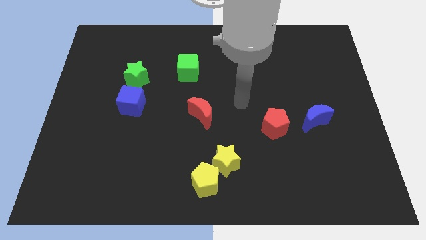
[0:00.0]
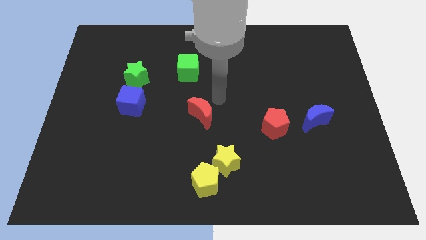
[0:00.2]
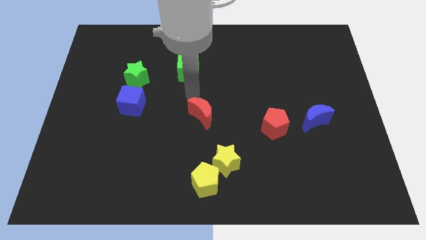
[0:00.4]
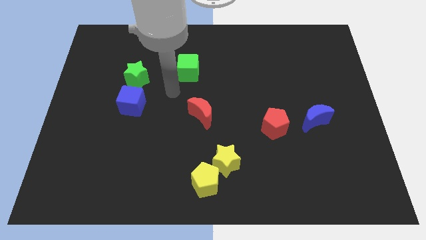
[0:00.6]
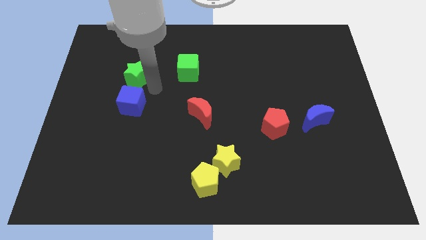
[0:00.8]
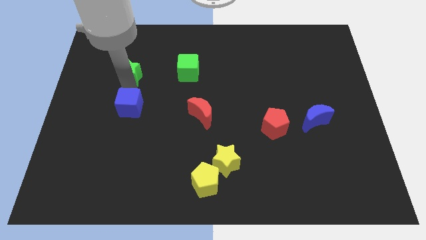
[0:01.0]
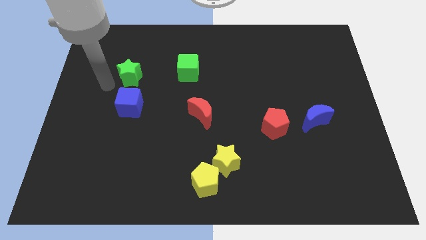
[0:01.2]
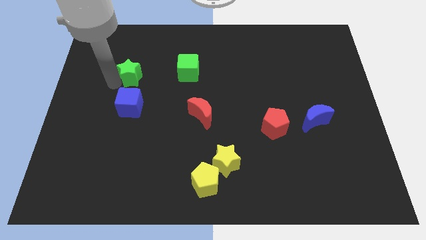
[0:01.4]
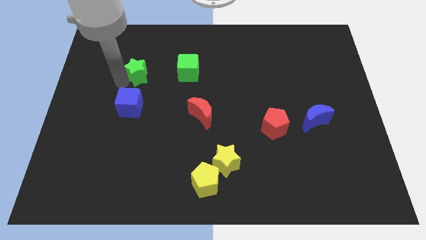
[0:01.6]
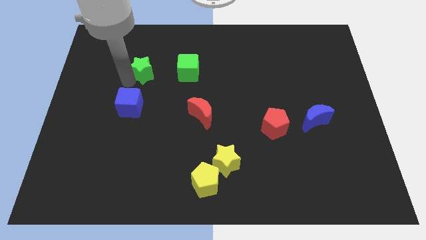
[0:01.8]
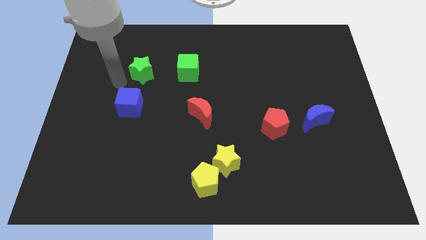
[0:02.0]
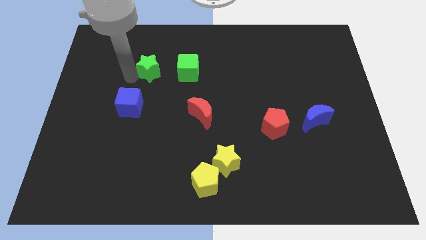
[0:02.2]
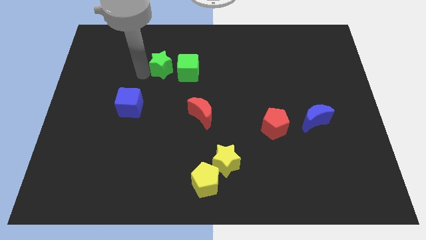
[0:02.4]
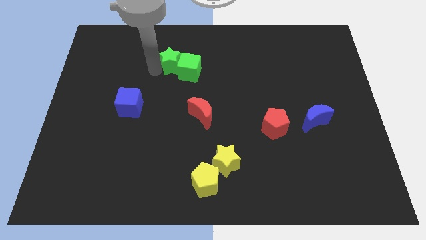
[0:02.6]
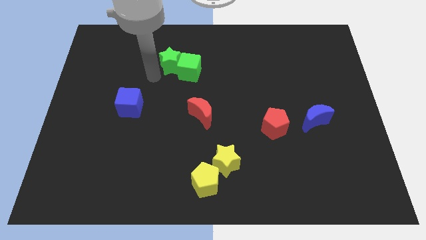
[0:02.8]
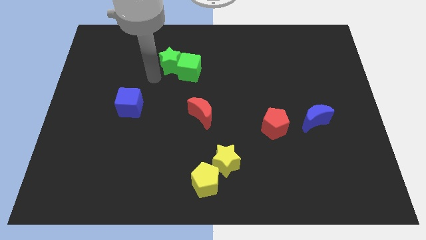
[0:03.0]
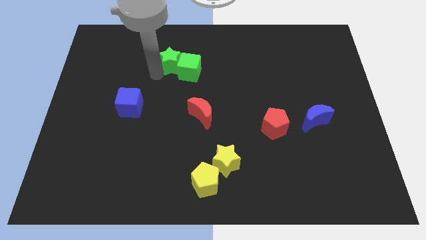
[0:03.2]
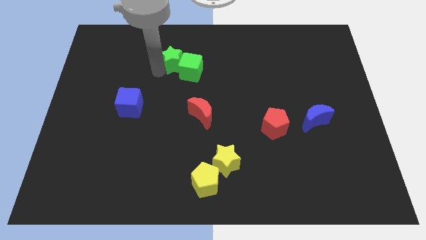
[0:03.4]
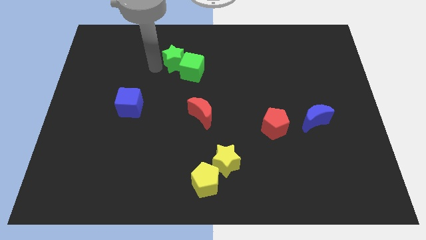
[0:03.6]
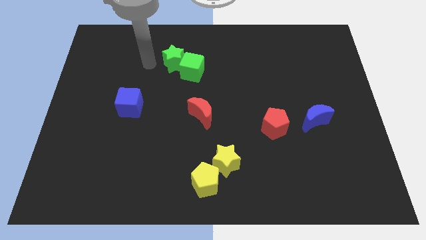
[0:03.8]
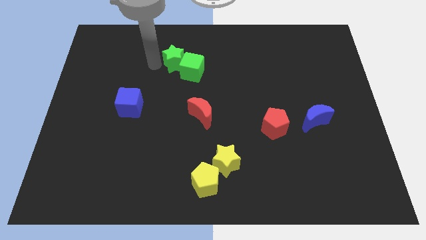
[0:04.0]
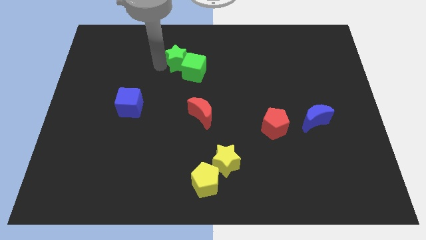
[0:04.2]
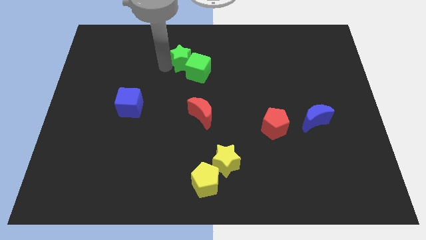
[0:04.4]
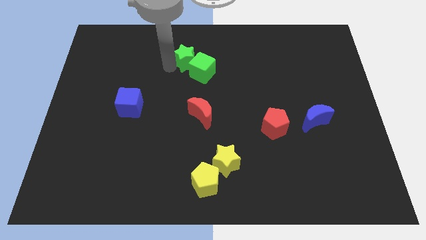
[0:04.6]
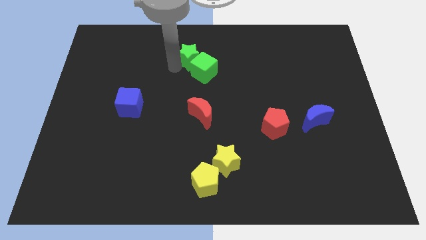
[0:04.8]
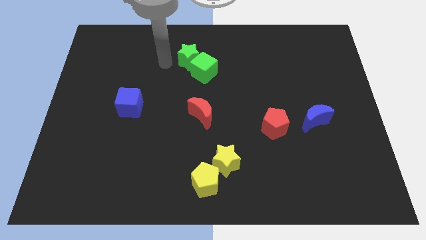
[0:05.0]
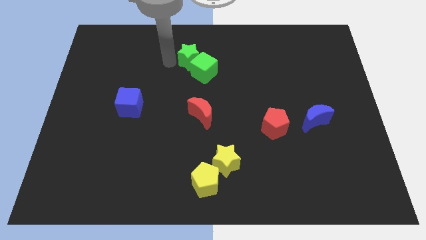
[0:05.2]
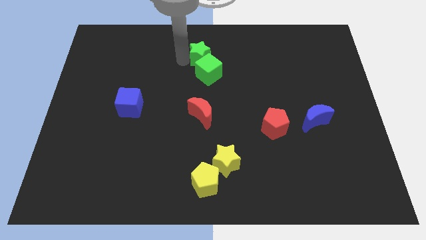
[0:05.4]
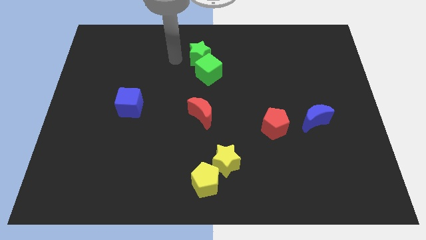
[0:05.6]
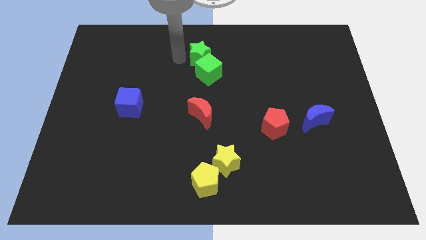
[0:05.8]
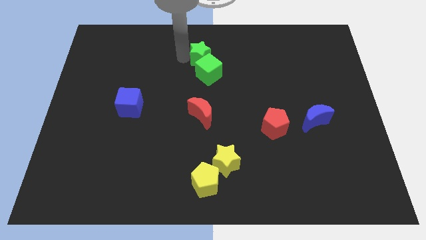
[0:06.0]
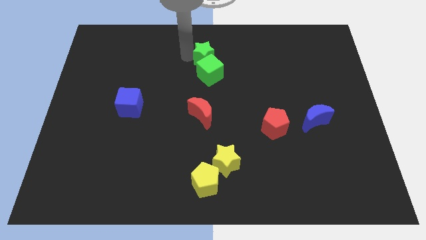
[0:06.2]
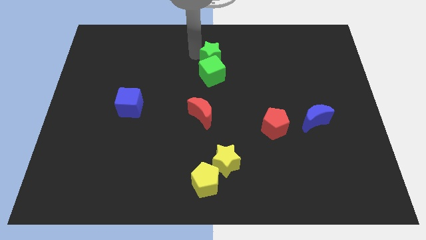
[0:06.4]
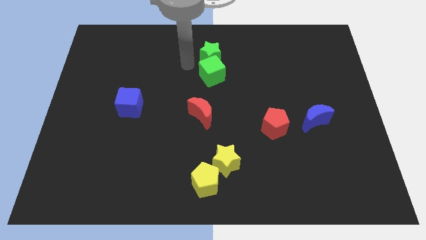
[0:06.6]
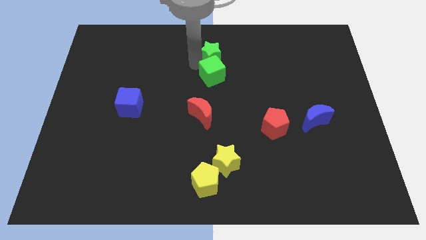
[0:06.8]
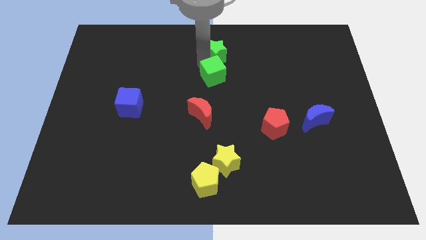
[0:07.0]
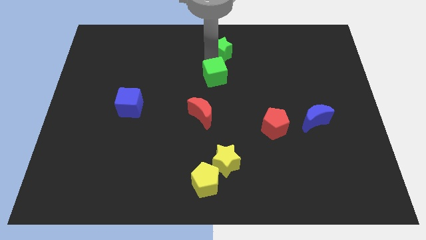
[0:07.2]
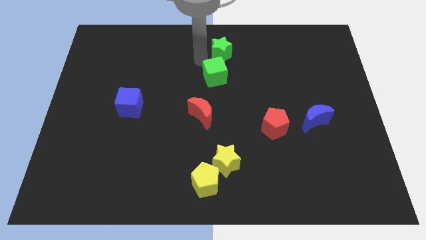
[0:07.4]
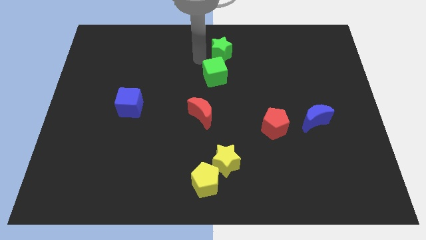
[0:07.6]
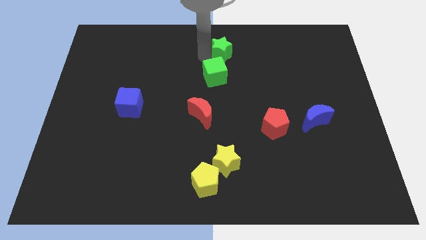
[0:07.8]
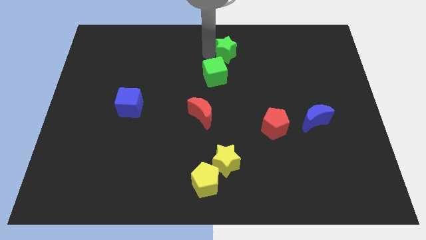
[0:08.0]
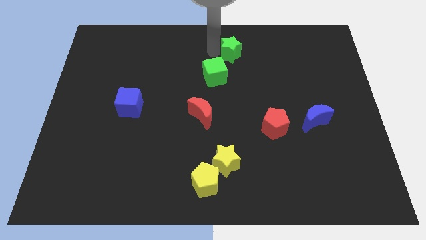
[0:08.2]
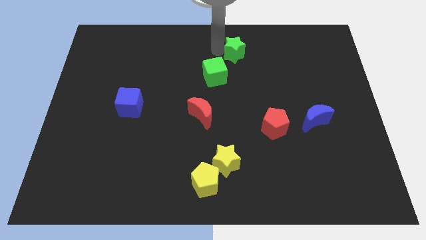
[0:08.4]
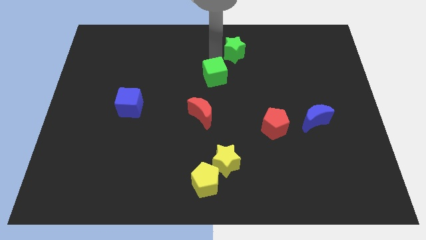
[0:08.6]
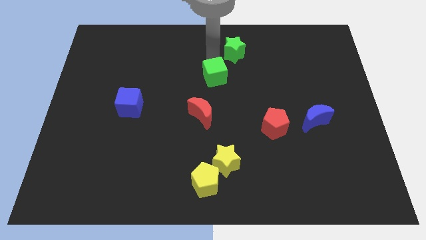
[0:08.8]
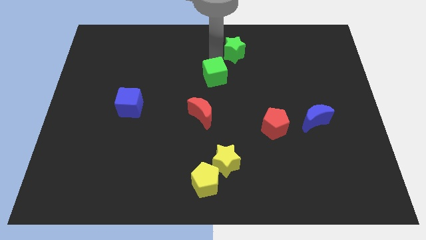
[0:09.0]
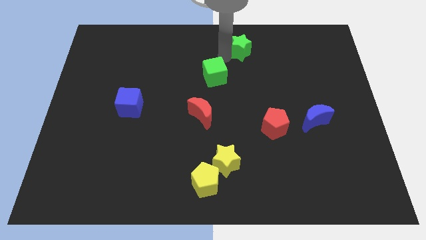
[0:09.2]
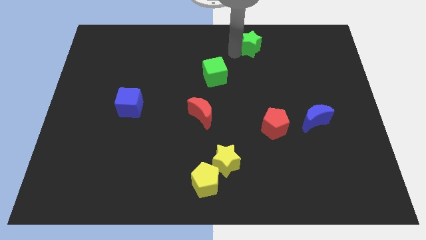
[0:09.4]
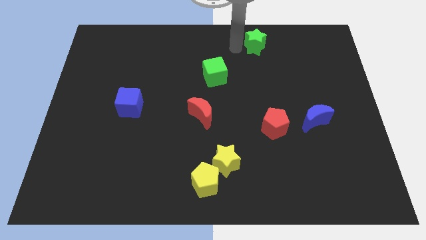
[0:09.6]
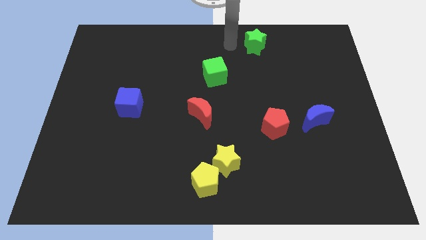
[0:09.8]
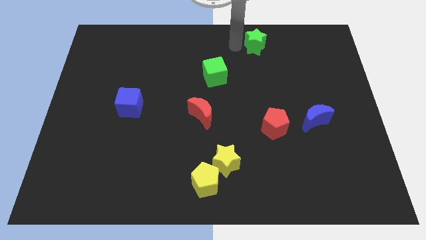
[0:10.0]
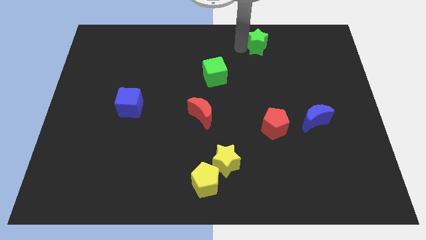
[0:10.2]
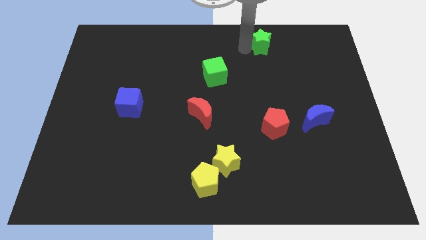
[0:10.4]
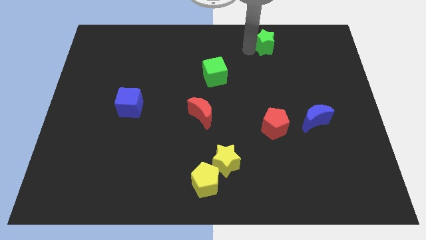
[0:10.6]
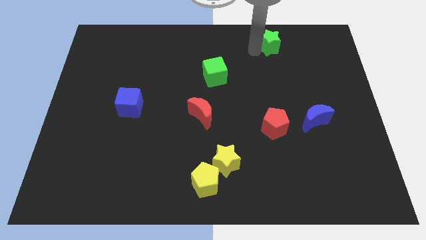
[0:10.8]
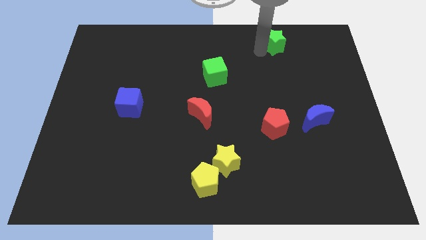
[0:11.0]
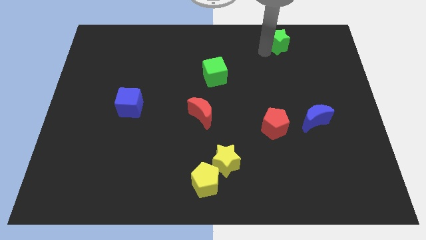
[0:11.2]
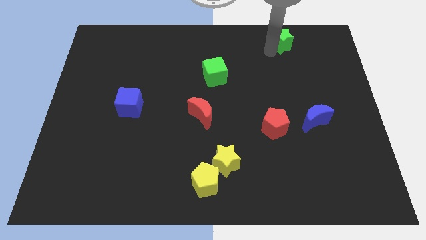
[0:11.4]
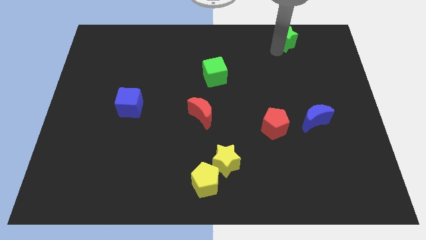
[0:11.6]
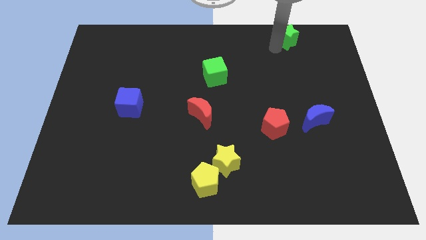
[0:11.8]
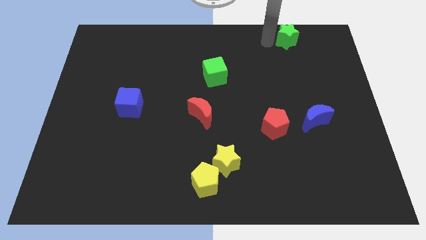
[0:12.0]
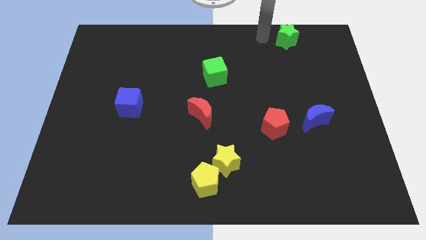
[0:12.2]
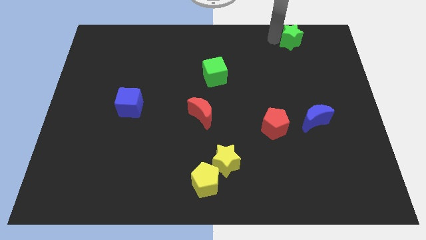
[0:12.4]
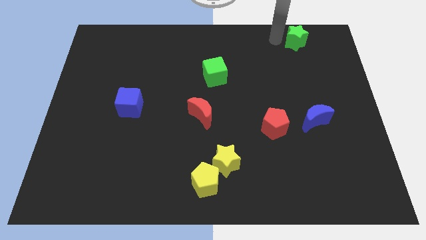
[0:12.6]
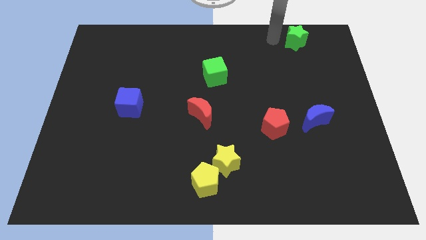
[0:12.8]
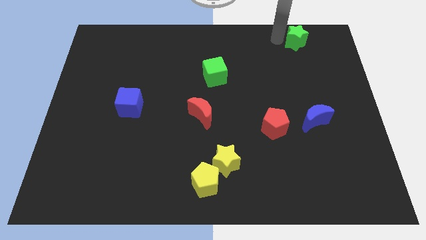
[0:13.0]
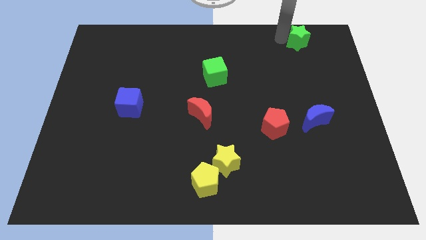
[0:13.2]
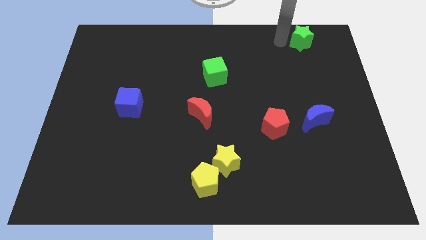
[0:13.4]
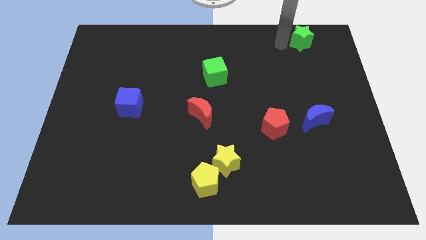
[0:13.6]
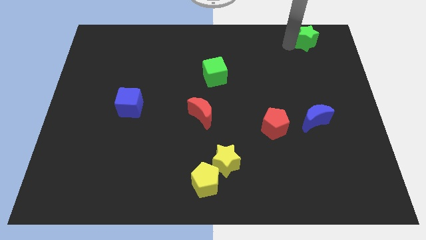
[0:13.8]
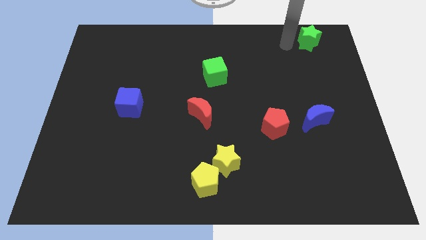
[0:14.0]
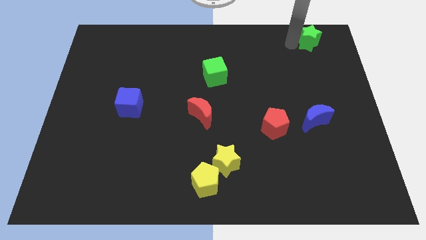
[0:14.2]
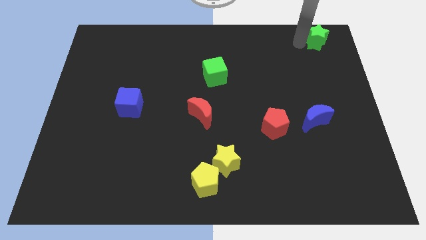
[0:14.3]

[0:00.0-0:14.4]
put the green star to the top right corner
